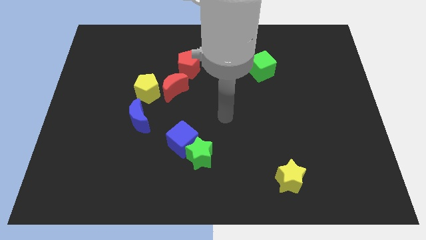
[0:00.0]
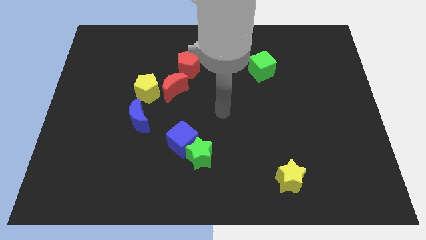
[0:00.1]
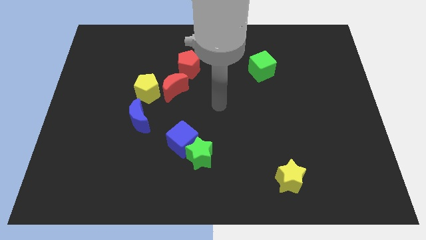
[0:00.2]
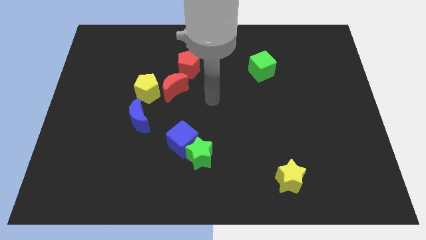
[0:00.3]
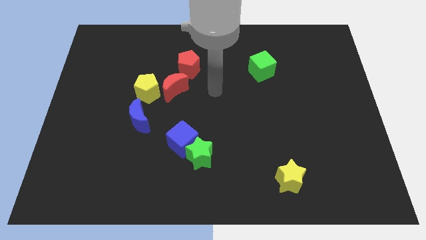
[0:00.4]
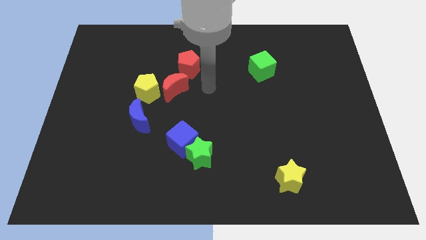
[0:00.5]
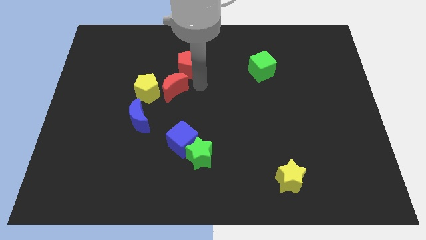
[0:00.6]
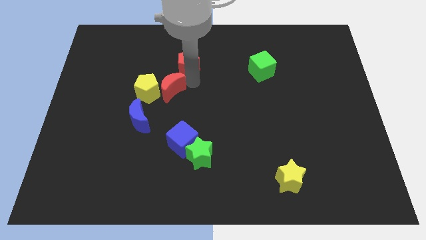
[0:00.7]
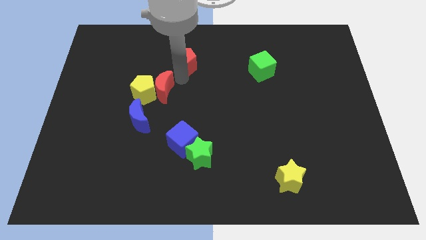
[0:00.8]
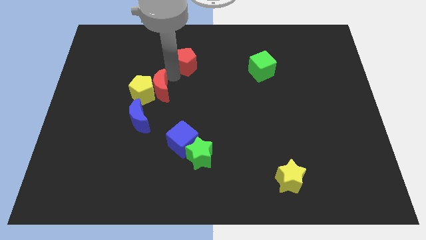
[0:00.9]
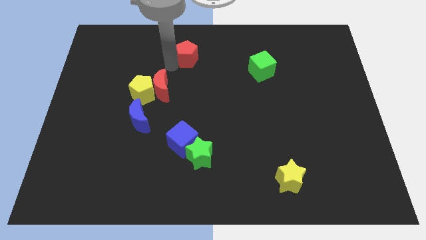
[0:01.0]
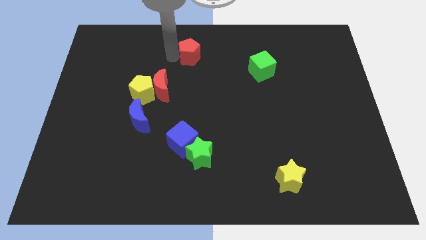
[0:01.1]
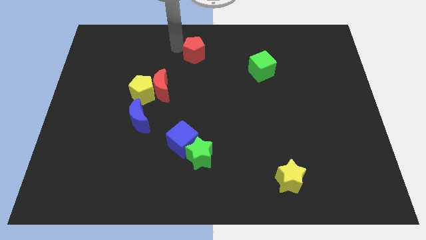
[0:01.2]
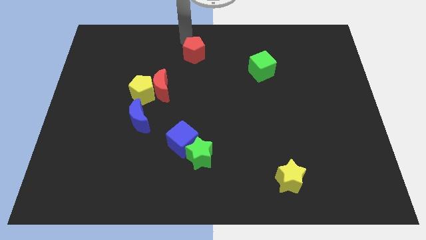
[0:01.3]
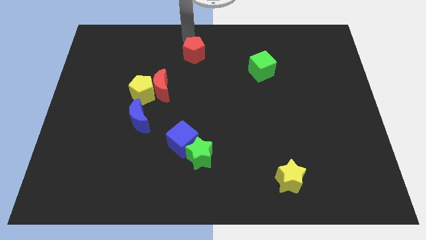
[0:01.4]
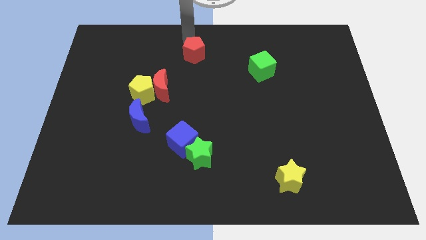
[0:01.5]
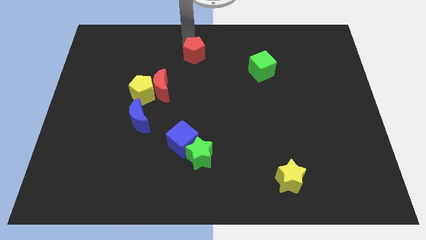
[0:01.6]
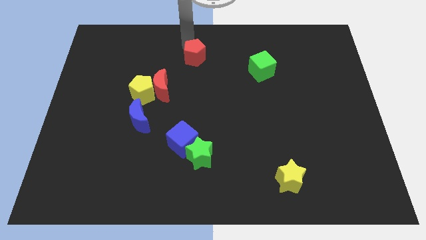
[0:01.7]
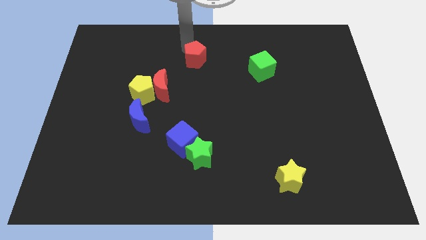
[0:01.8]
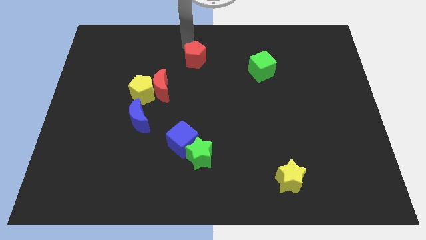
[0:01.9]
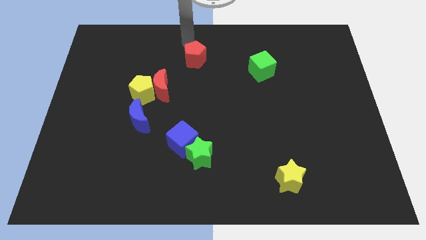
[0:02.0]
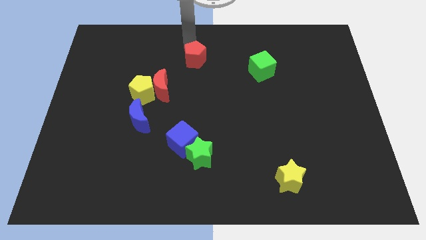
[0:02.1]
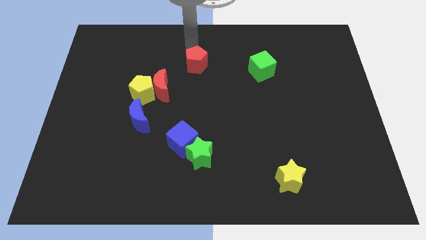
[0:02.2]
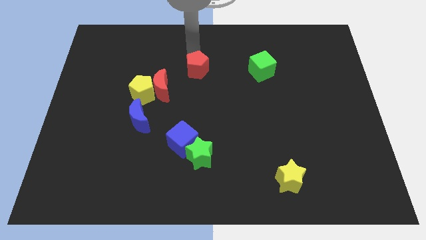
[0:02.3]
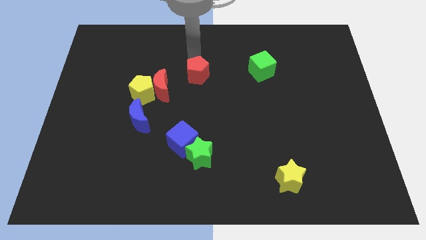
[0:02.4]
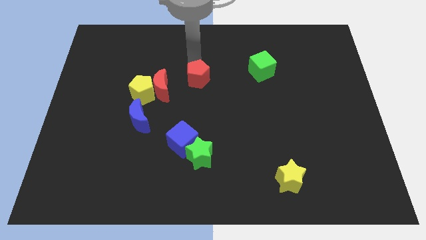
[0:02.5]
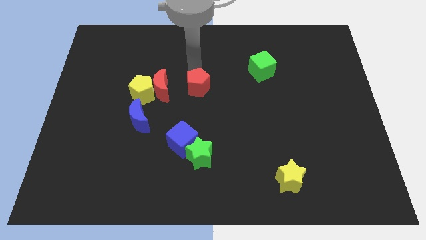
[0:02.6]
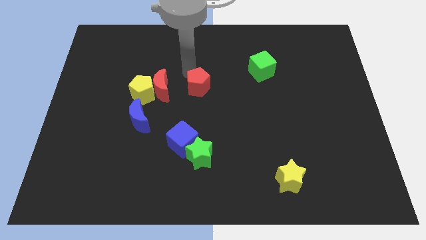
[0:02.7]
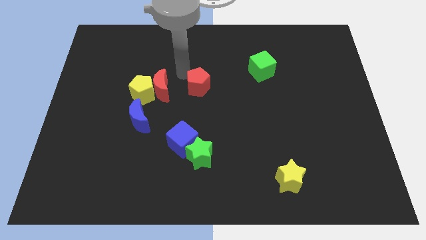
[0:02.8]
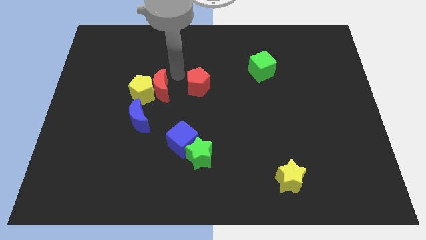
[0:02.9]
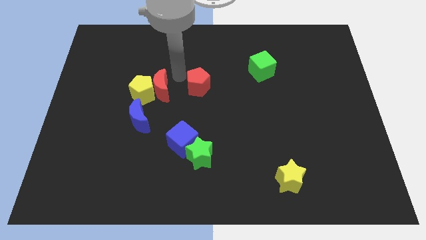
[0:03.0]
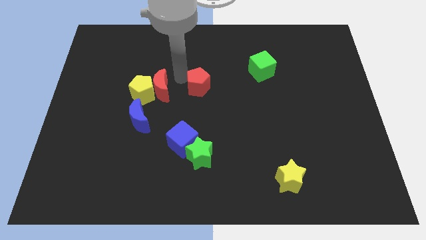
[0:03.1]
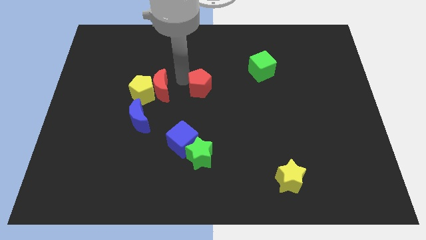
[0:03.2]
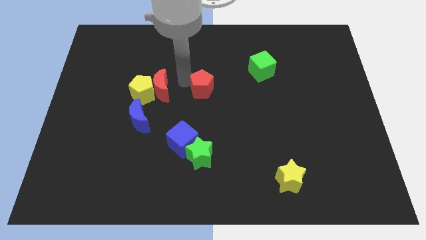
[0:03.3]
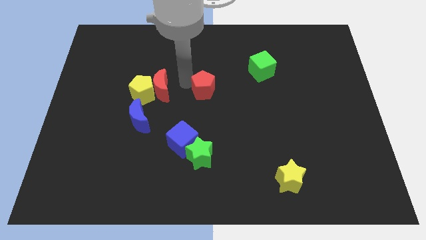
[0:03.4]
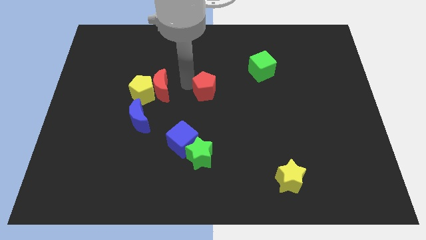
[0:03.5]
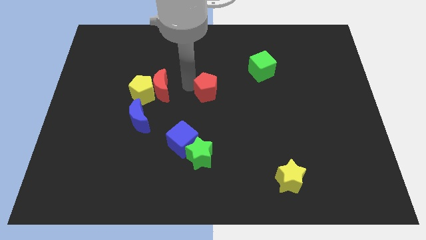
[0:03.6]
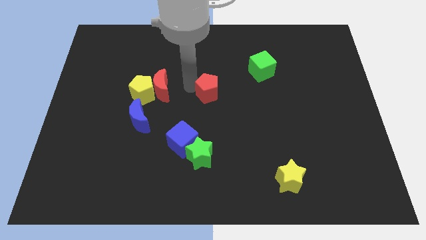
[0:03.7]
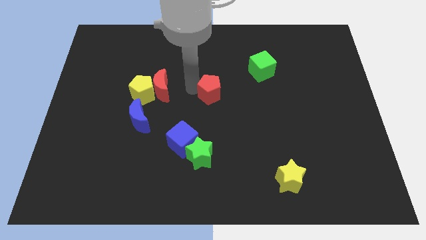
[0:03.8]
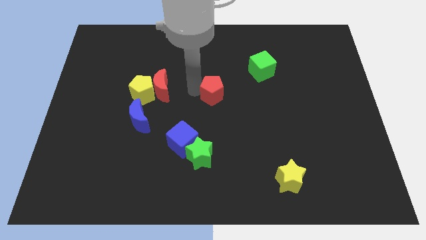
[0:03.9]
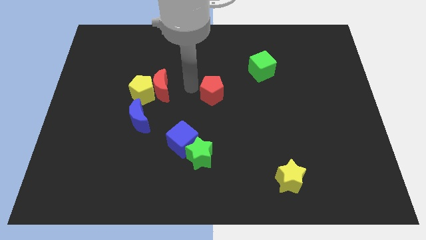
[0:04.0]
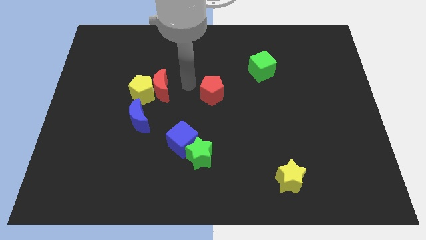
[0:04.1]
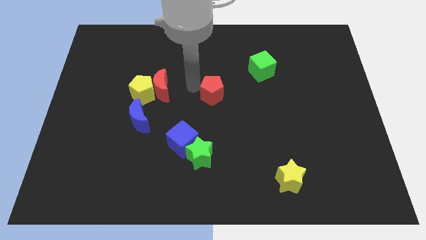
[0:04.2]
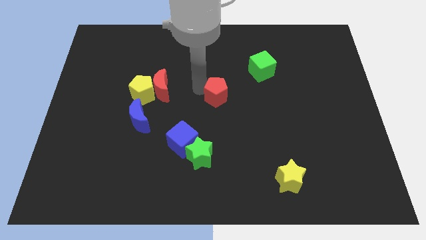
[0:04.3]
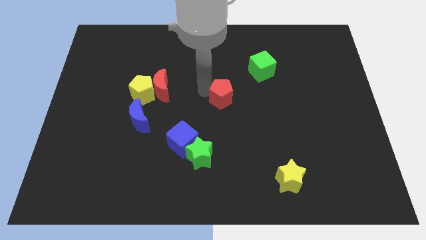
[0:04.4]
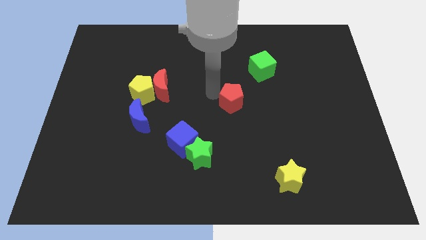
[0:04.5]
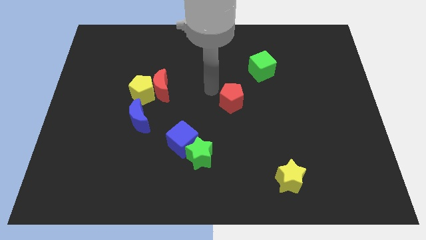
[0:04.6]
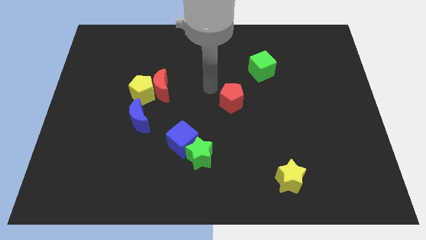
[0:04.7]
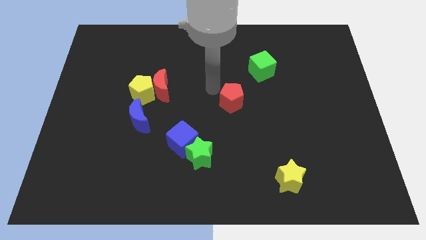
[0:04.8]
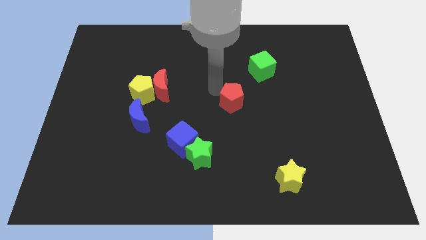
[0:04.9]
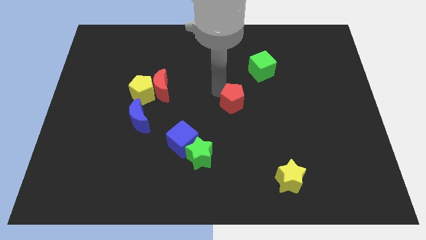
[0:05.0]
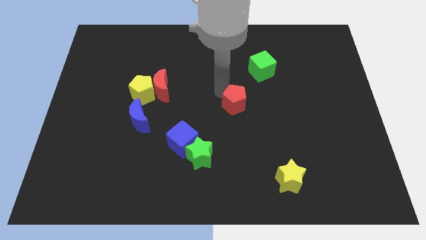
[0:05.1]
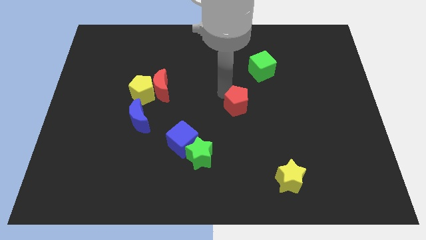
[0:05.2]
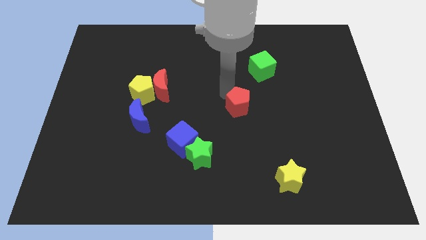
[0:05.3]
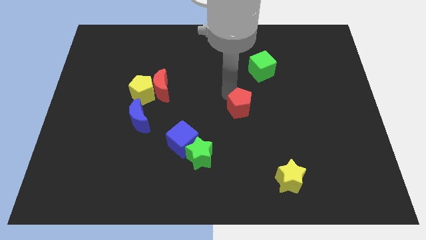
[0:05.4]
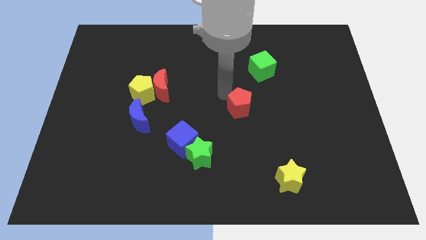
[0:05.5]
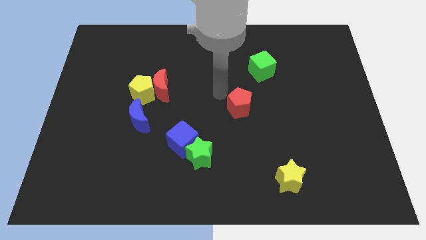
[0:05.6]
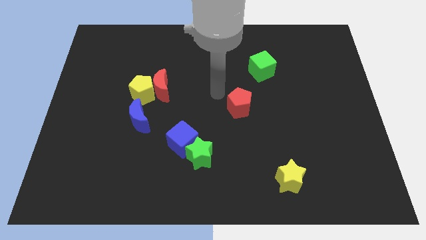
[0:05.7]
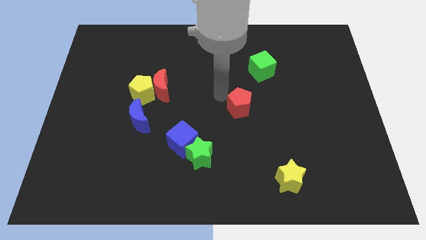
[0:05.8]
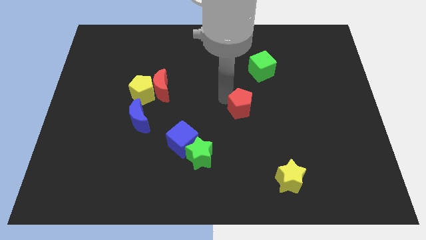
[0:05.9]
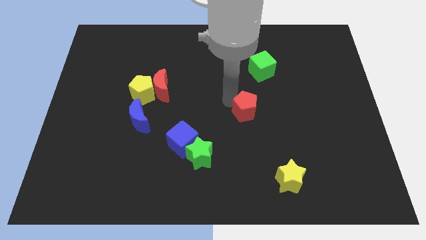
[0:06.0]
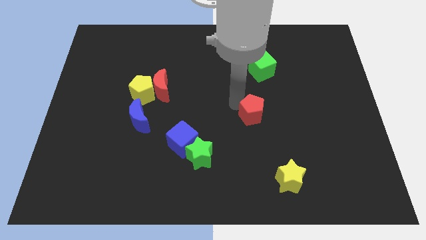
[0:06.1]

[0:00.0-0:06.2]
slide the red pentagon downwards and to the right

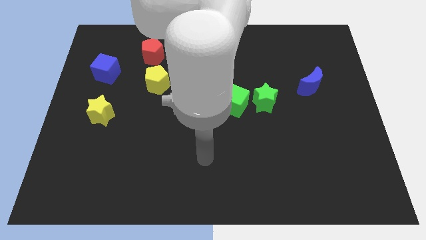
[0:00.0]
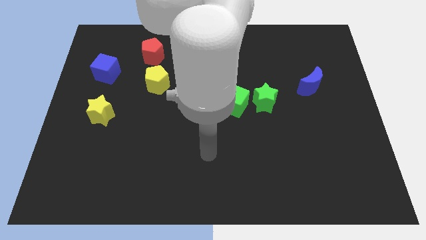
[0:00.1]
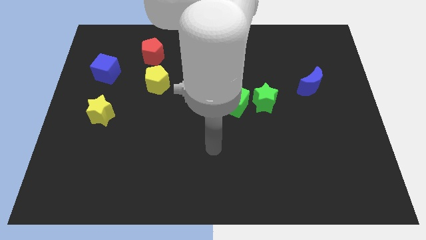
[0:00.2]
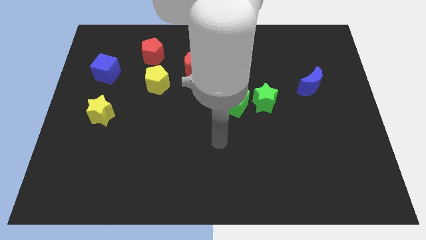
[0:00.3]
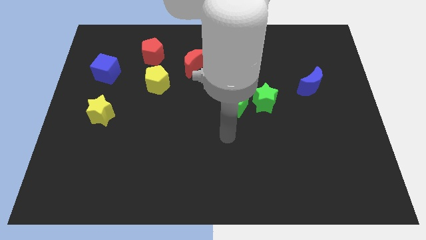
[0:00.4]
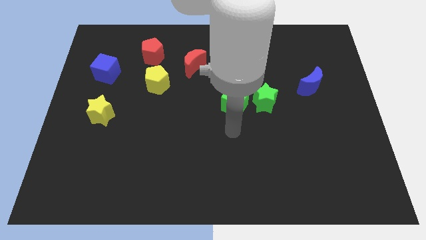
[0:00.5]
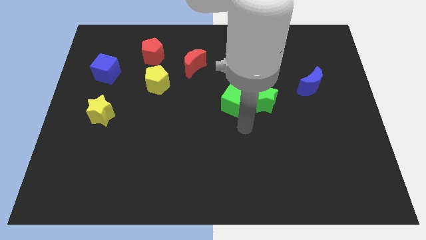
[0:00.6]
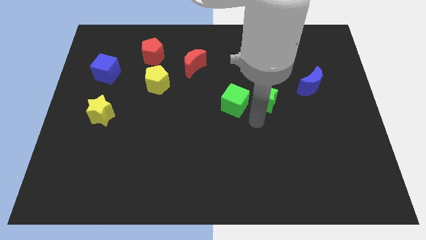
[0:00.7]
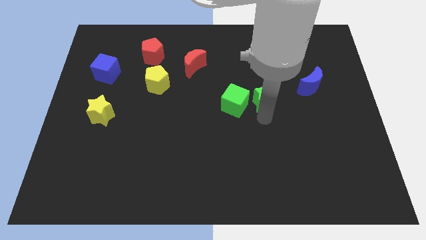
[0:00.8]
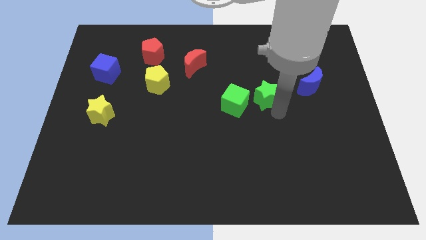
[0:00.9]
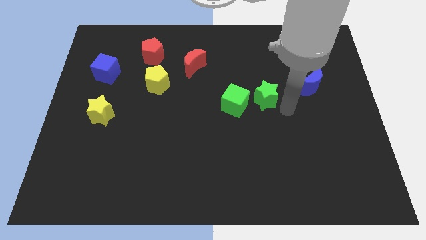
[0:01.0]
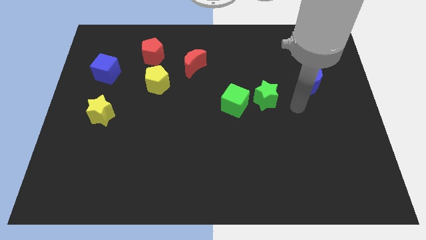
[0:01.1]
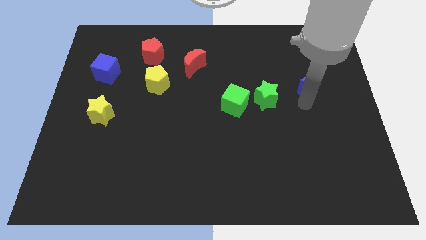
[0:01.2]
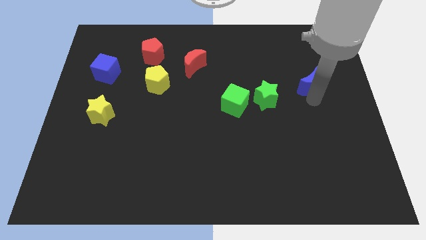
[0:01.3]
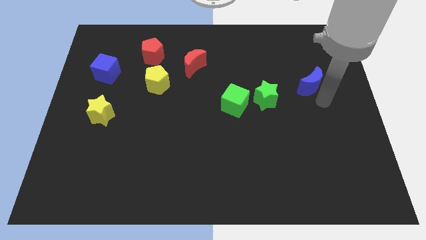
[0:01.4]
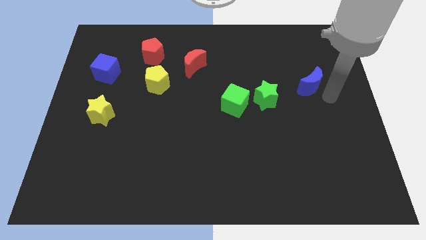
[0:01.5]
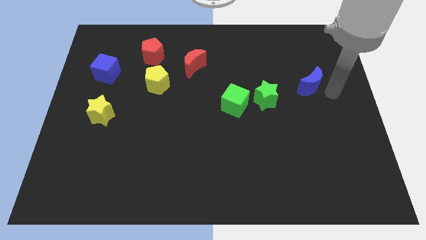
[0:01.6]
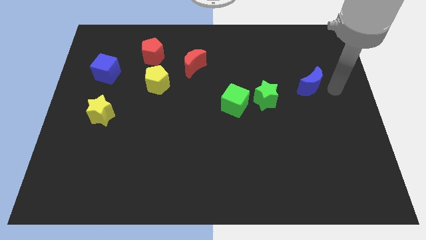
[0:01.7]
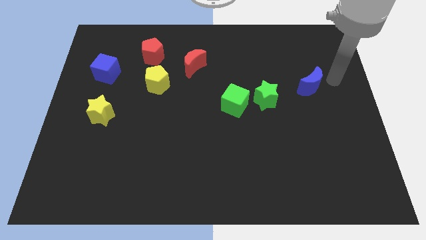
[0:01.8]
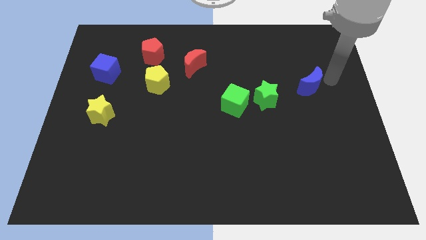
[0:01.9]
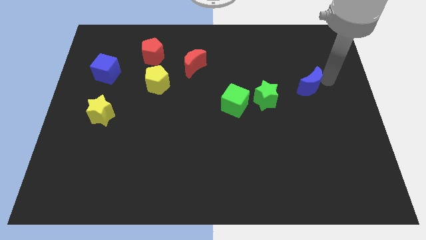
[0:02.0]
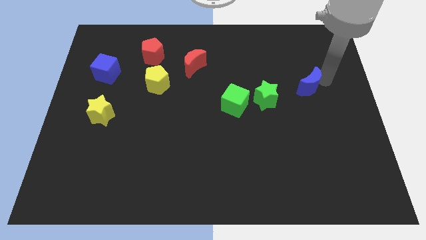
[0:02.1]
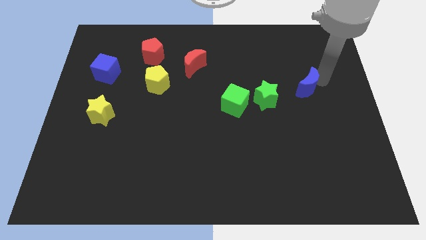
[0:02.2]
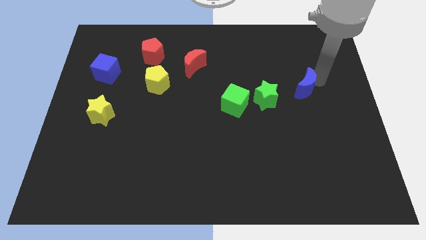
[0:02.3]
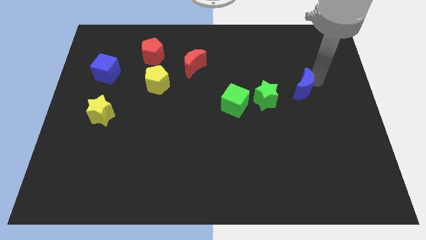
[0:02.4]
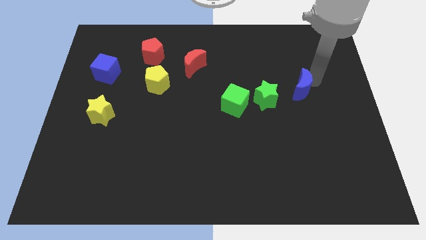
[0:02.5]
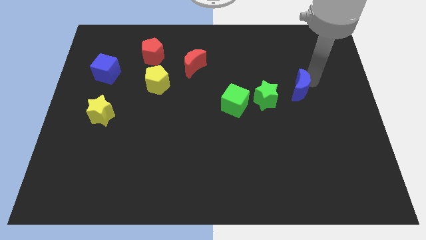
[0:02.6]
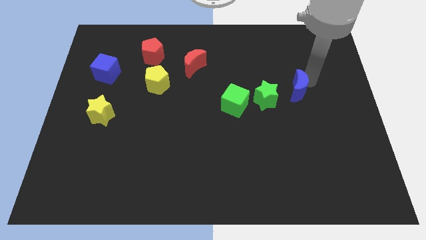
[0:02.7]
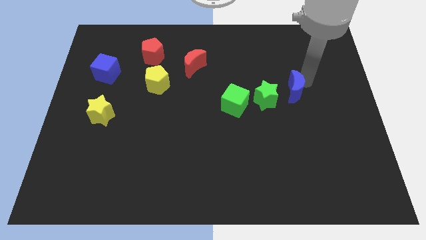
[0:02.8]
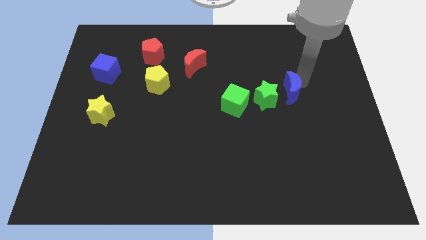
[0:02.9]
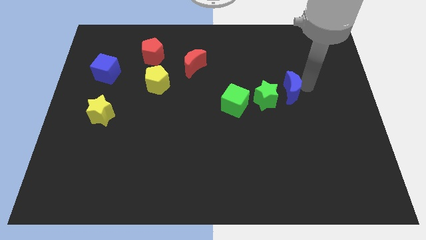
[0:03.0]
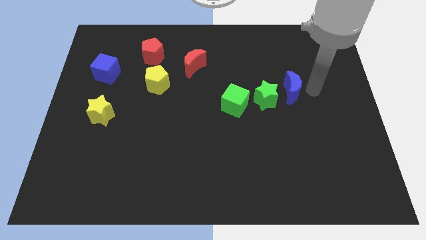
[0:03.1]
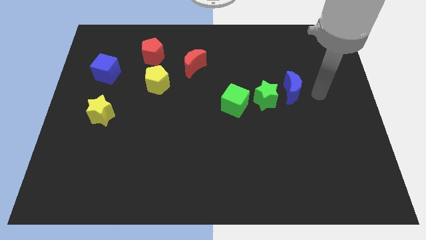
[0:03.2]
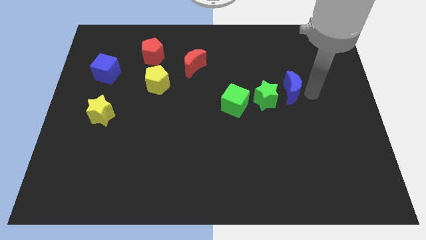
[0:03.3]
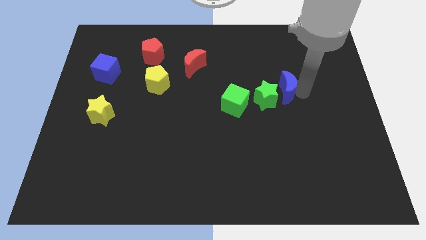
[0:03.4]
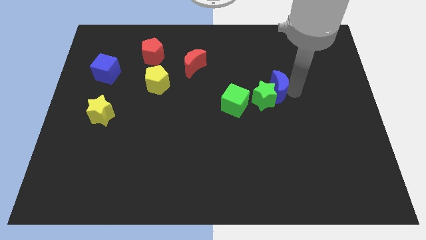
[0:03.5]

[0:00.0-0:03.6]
slide the blue moon left slightly
